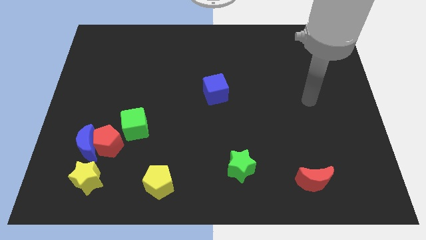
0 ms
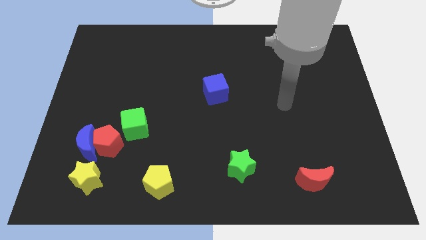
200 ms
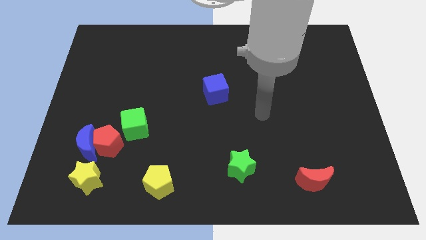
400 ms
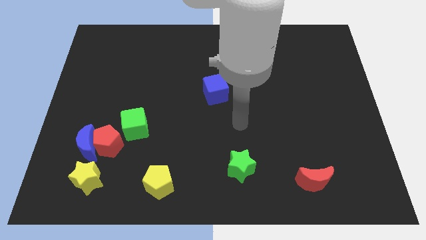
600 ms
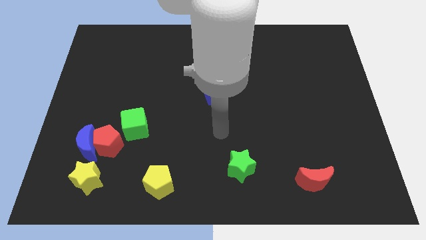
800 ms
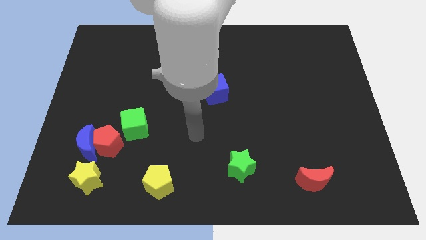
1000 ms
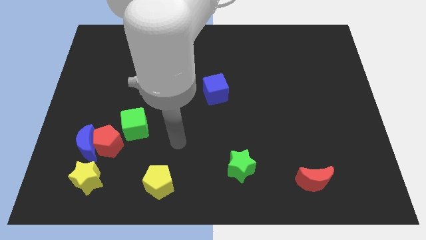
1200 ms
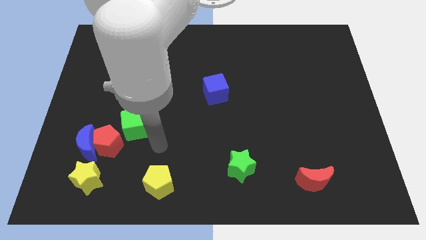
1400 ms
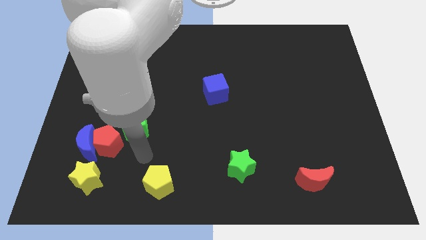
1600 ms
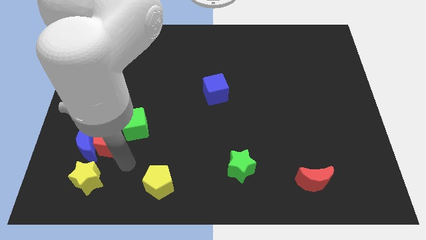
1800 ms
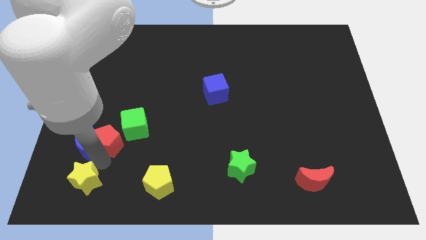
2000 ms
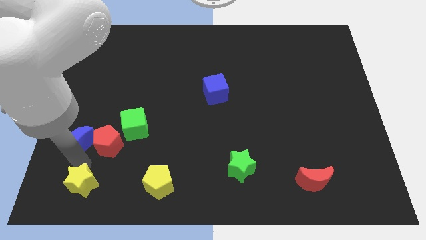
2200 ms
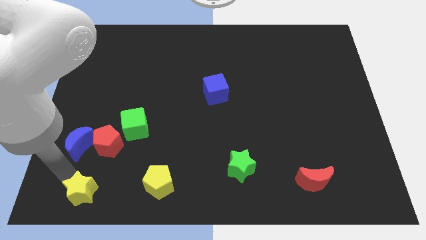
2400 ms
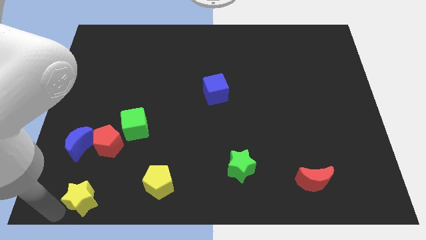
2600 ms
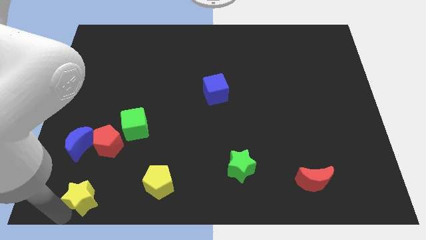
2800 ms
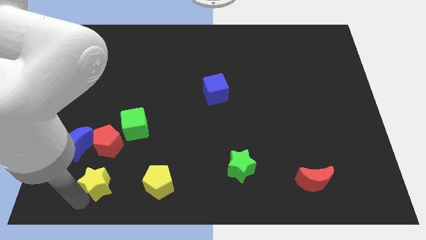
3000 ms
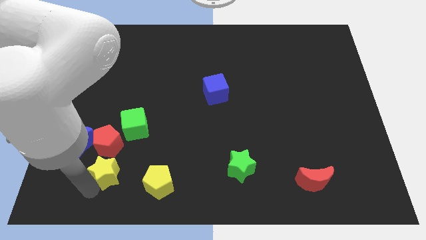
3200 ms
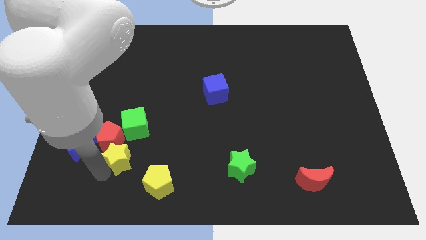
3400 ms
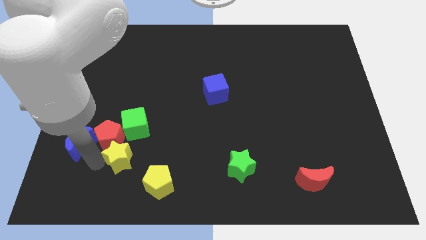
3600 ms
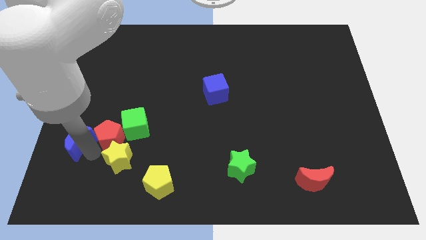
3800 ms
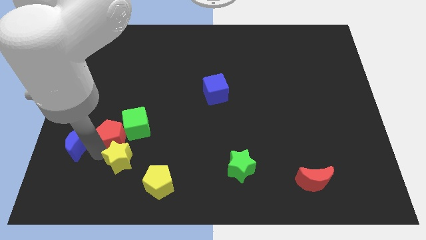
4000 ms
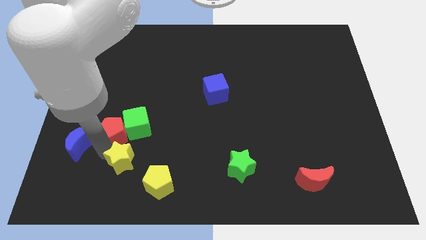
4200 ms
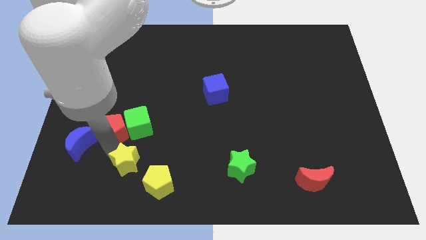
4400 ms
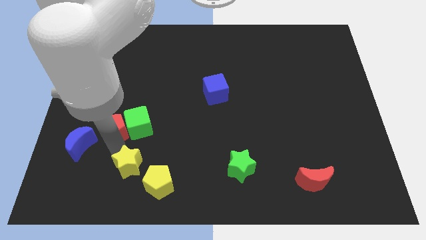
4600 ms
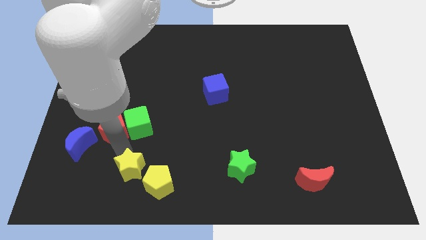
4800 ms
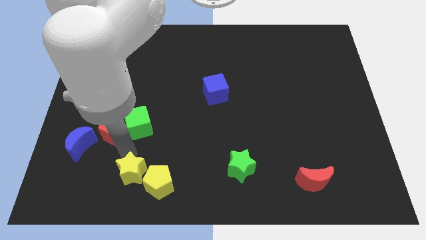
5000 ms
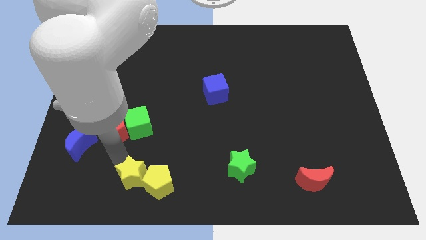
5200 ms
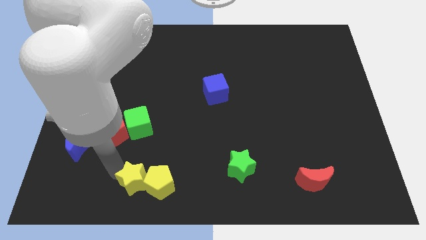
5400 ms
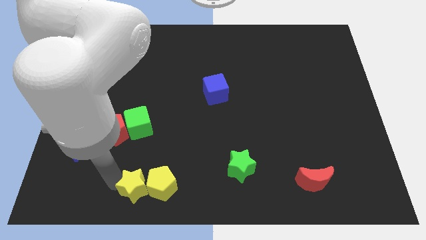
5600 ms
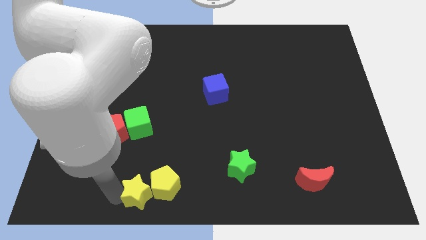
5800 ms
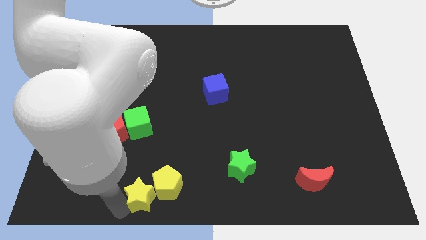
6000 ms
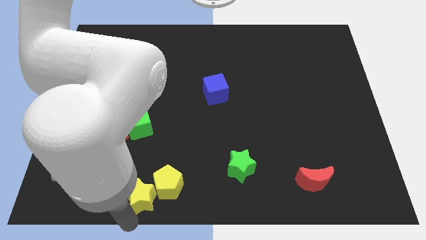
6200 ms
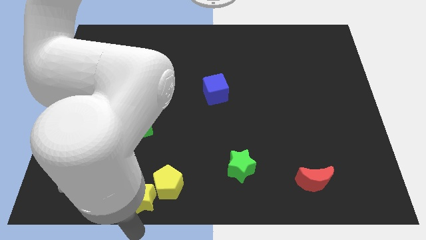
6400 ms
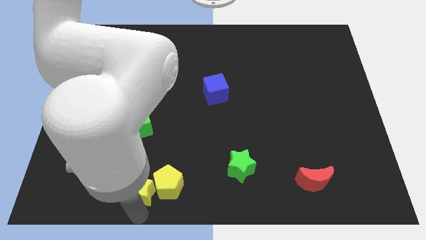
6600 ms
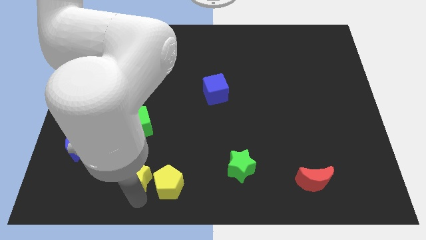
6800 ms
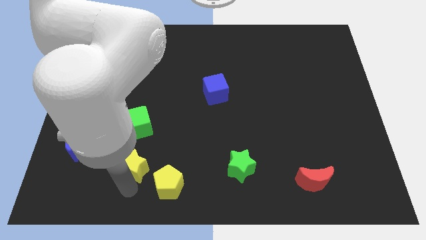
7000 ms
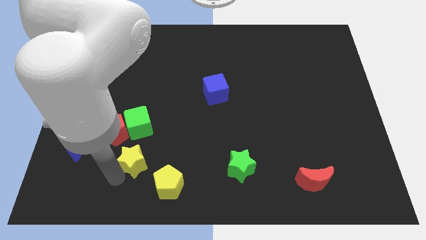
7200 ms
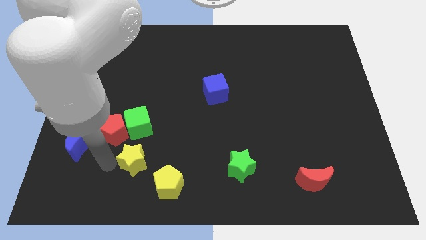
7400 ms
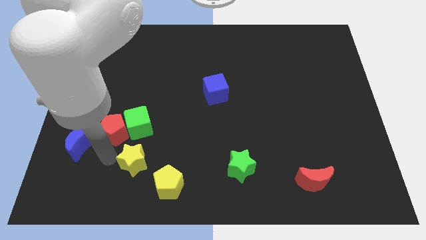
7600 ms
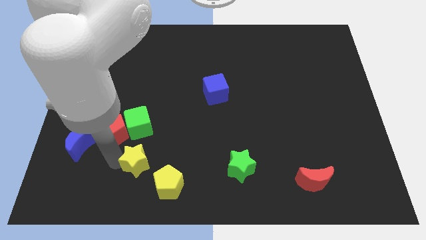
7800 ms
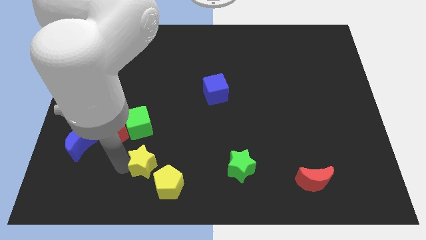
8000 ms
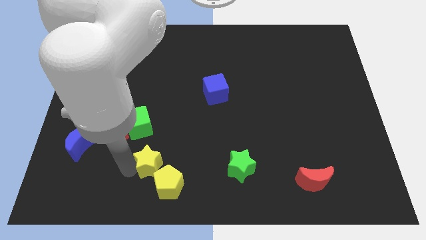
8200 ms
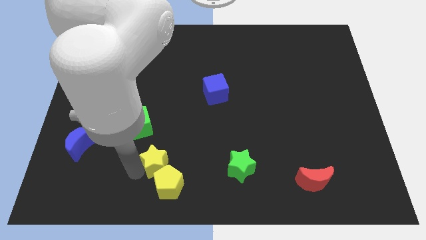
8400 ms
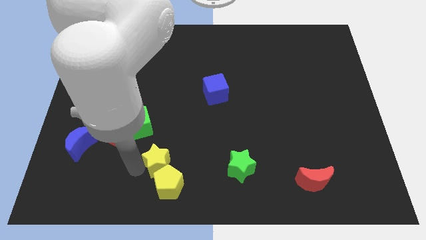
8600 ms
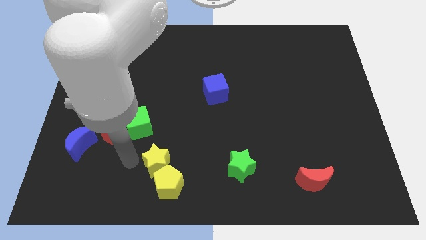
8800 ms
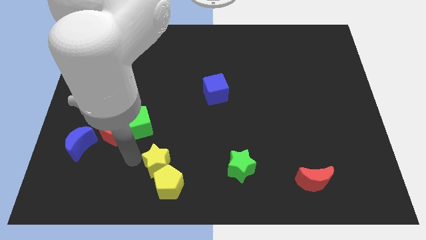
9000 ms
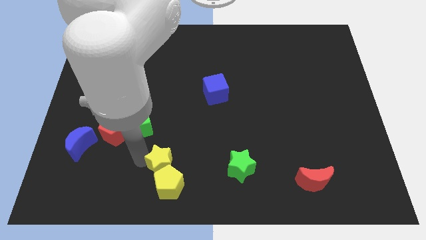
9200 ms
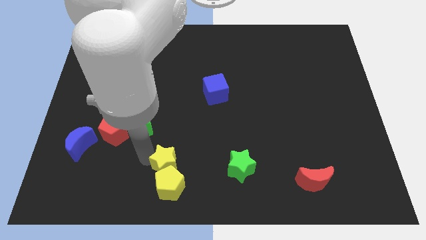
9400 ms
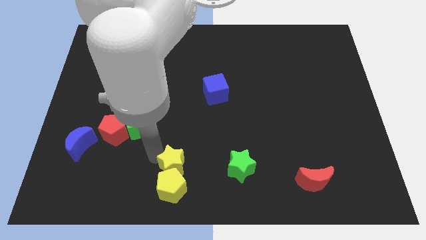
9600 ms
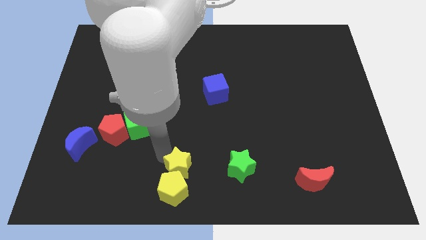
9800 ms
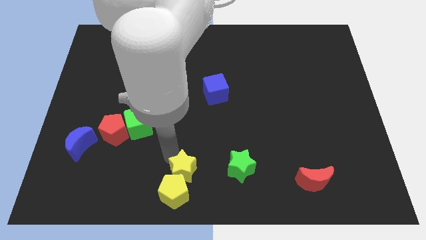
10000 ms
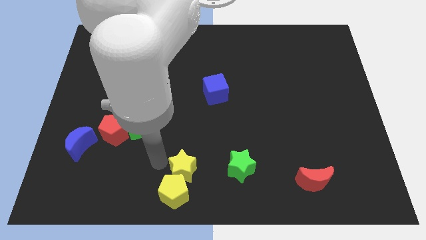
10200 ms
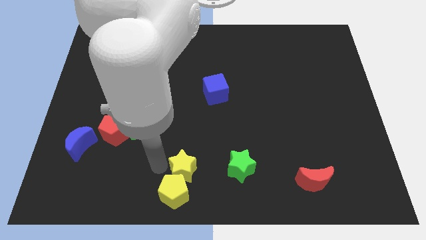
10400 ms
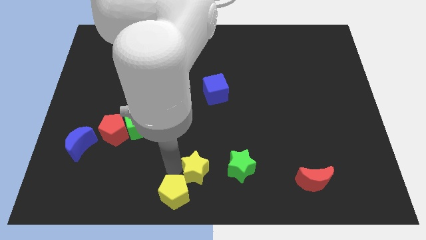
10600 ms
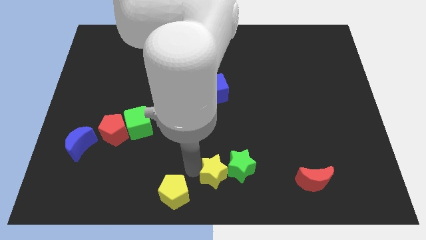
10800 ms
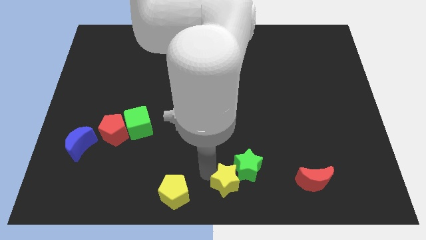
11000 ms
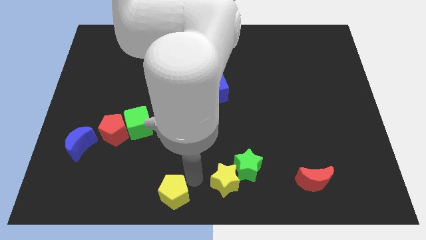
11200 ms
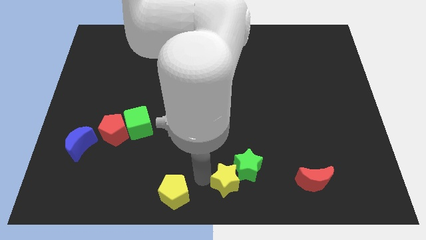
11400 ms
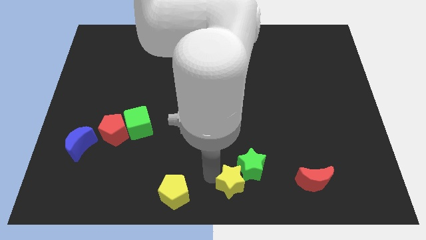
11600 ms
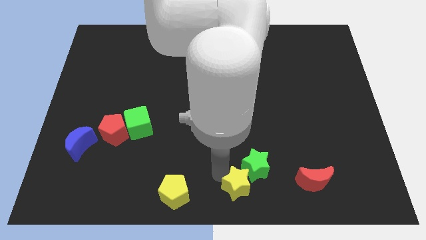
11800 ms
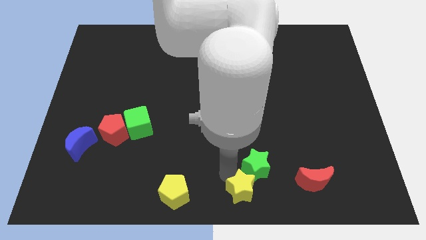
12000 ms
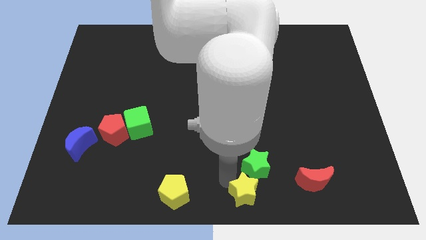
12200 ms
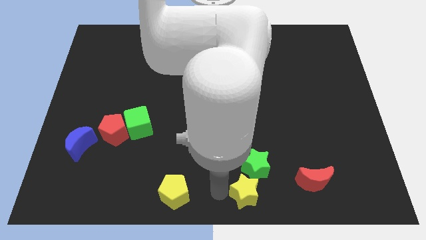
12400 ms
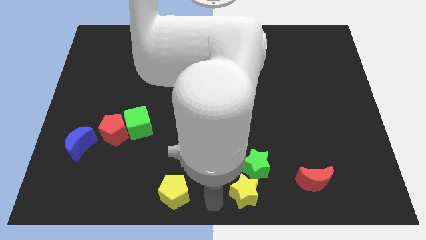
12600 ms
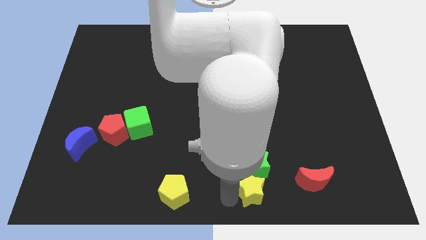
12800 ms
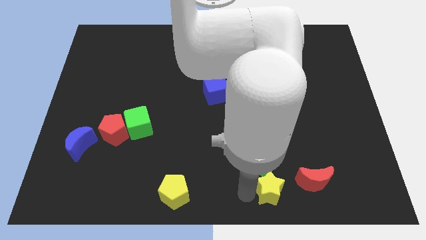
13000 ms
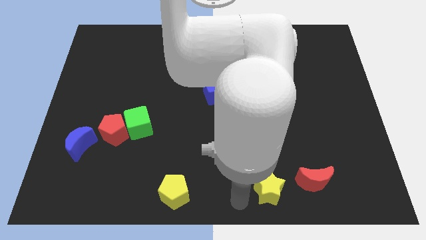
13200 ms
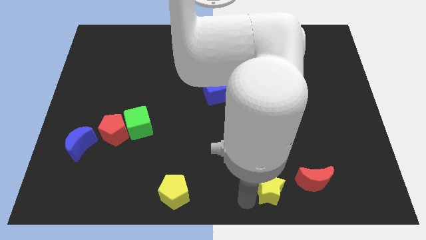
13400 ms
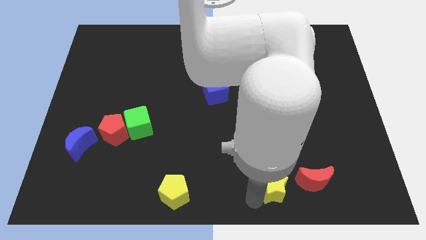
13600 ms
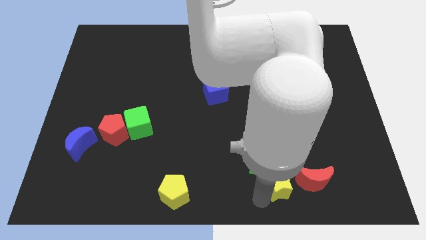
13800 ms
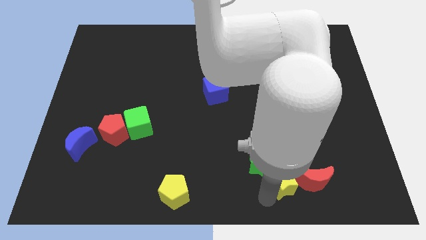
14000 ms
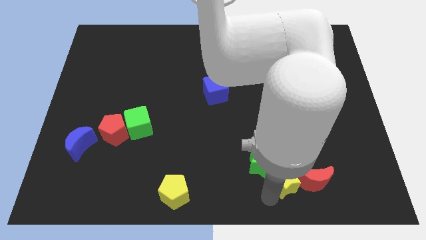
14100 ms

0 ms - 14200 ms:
move the yellow star towards the red moon

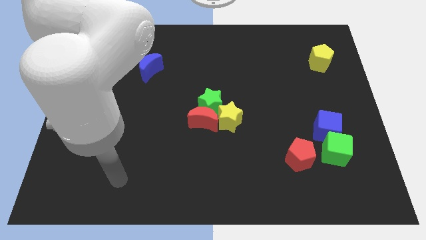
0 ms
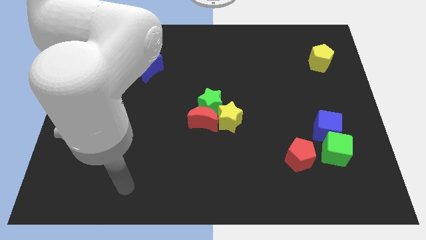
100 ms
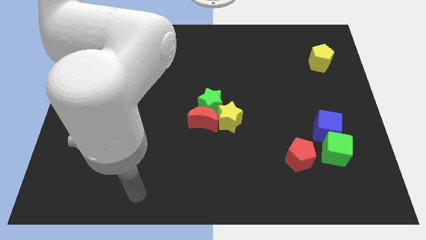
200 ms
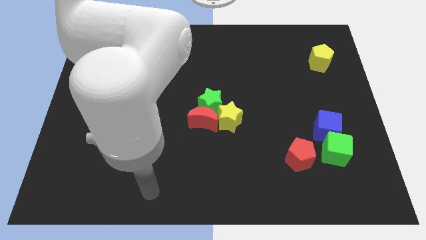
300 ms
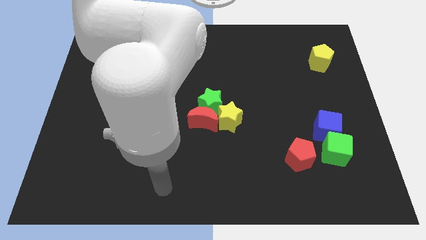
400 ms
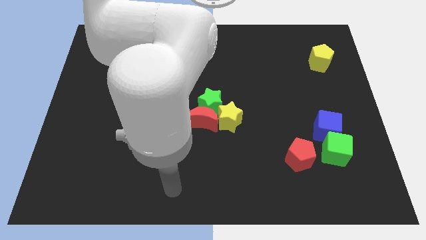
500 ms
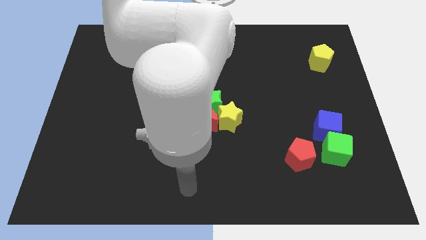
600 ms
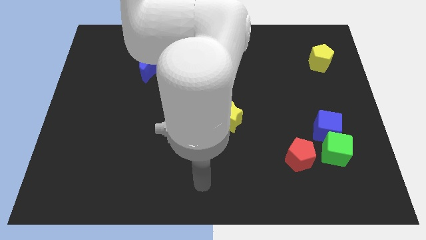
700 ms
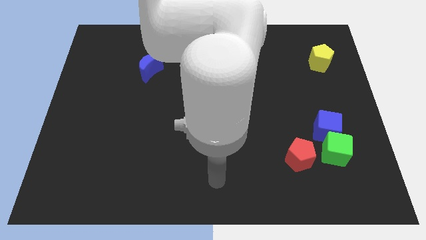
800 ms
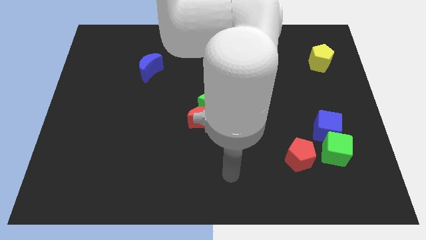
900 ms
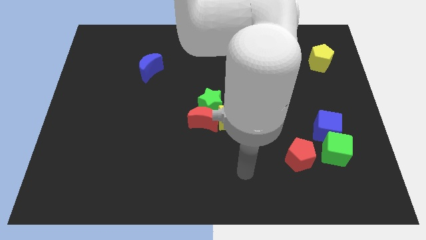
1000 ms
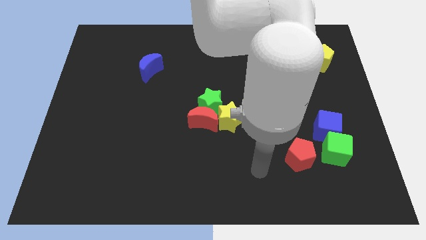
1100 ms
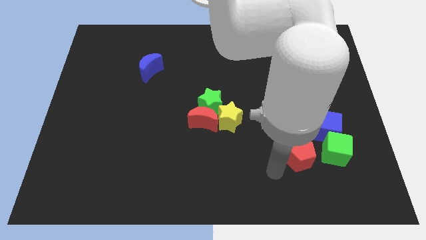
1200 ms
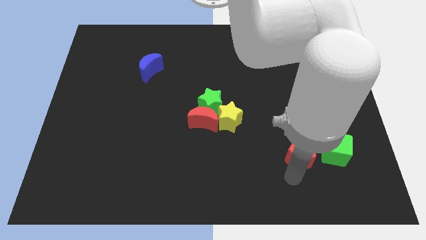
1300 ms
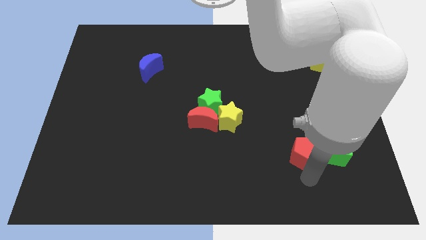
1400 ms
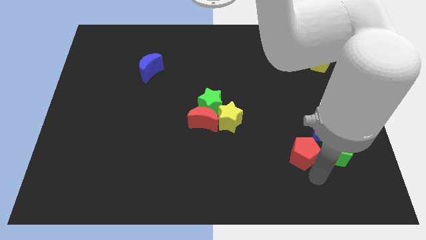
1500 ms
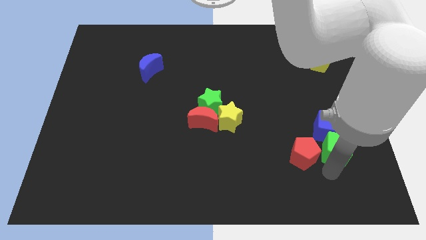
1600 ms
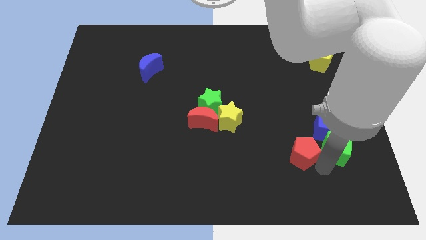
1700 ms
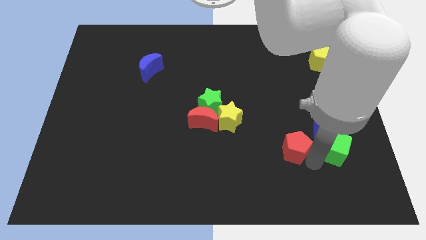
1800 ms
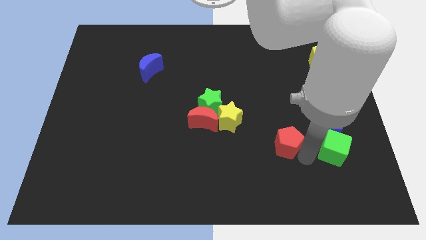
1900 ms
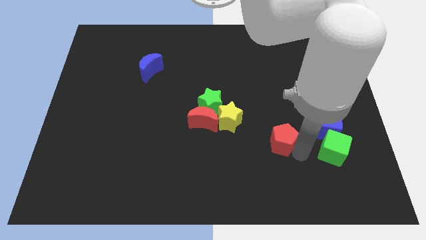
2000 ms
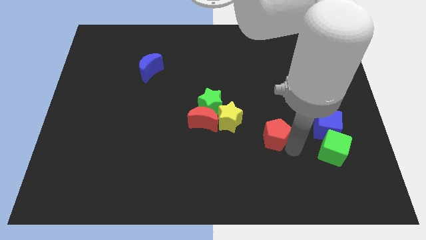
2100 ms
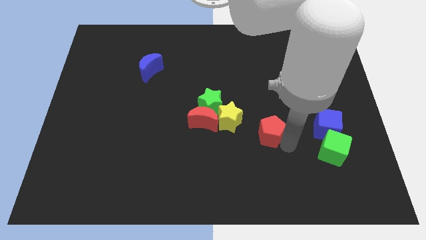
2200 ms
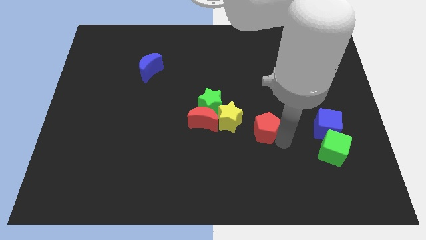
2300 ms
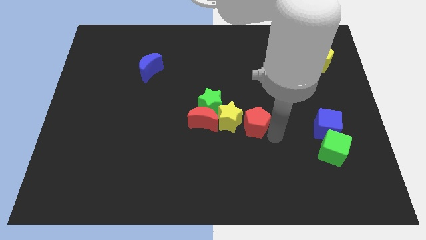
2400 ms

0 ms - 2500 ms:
slide the red pentagon next to the yellow star
